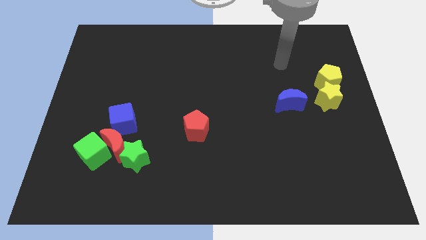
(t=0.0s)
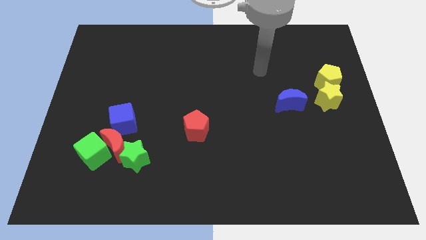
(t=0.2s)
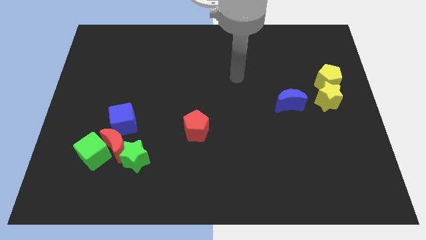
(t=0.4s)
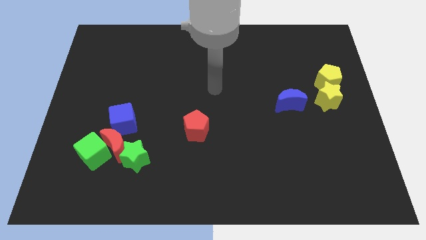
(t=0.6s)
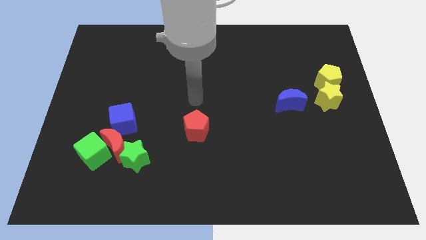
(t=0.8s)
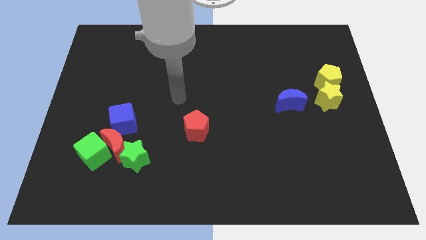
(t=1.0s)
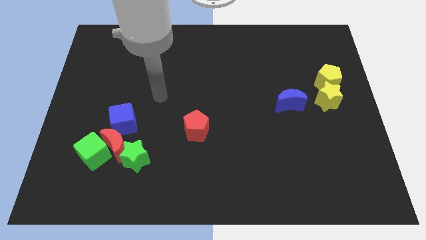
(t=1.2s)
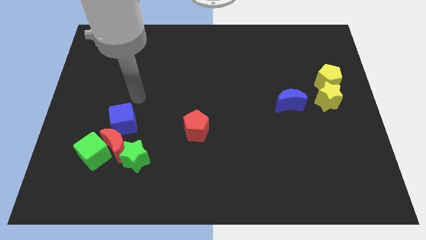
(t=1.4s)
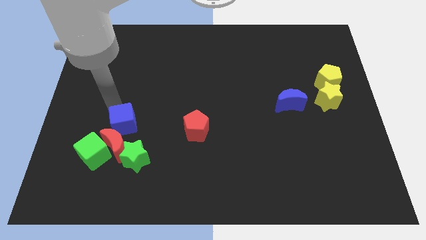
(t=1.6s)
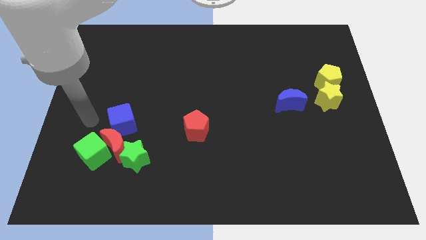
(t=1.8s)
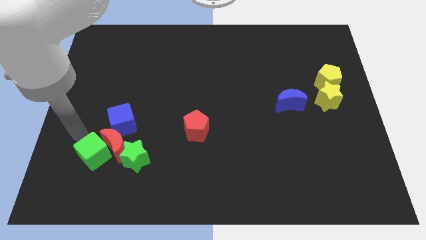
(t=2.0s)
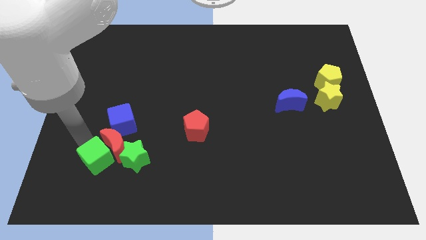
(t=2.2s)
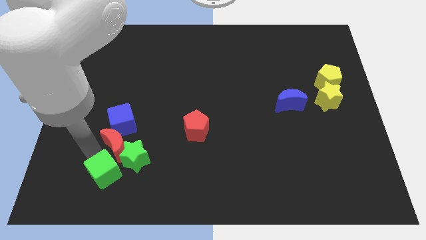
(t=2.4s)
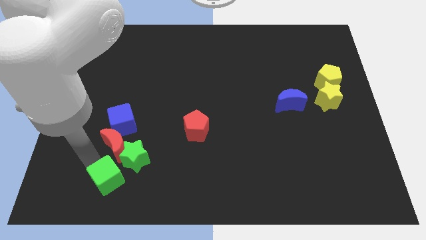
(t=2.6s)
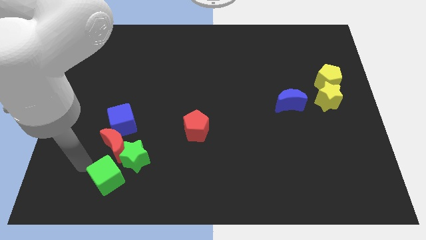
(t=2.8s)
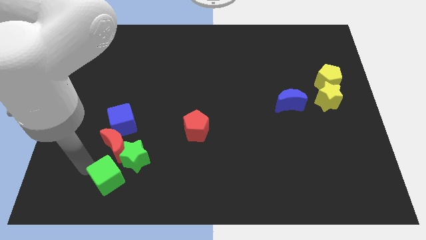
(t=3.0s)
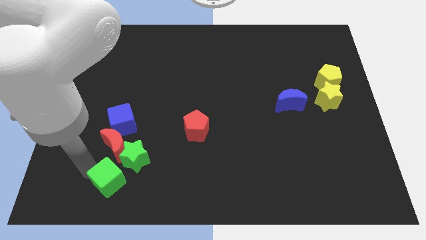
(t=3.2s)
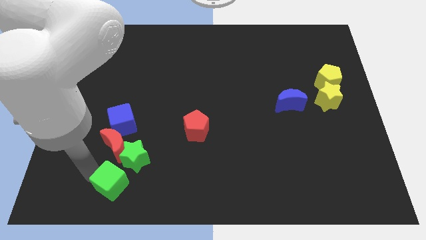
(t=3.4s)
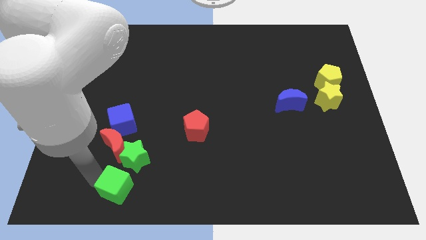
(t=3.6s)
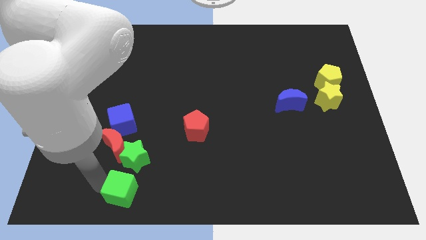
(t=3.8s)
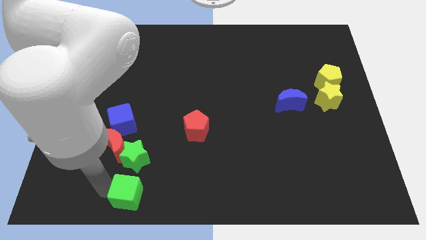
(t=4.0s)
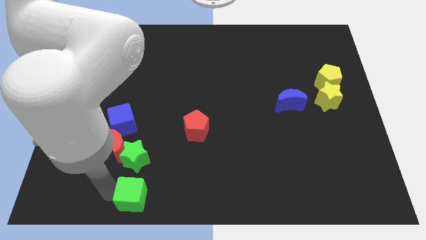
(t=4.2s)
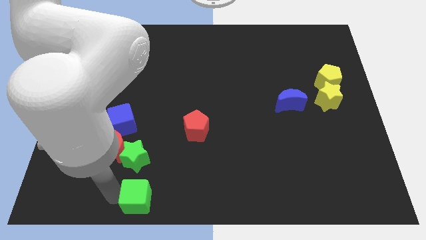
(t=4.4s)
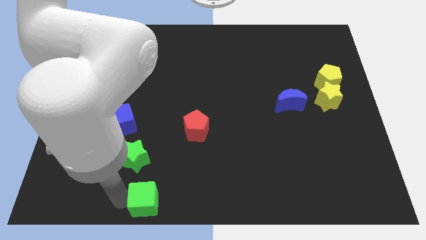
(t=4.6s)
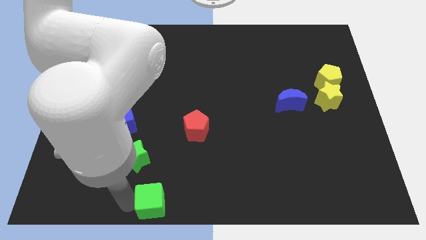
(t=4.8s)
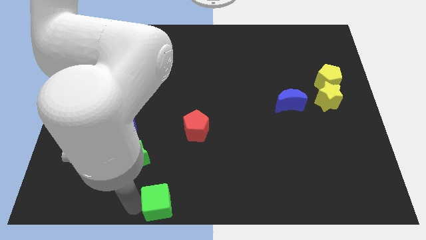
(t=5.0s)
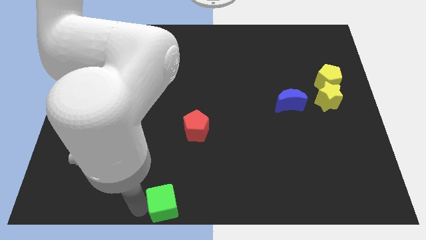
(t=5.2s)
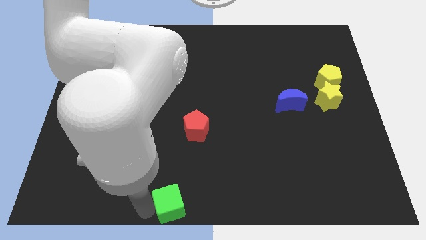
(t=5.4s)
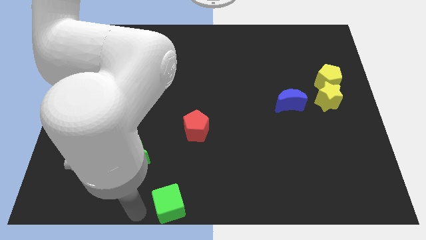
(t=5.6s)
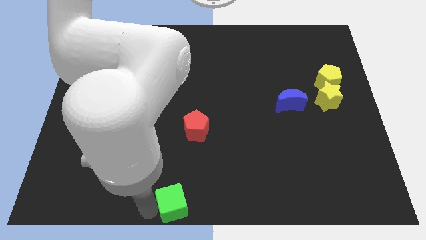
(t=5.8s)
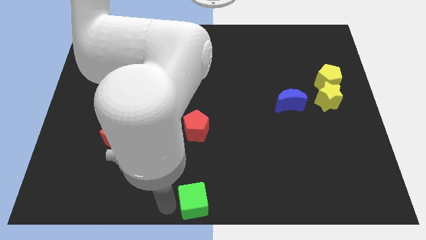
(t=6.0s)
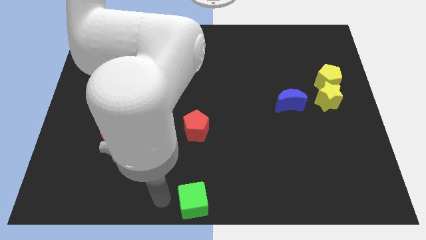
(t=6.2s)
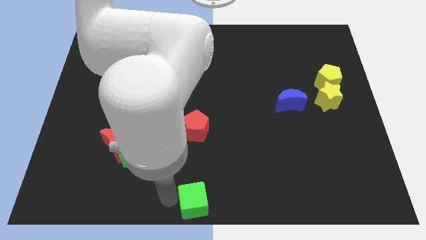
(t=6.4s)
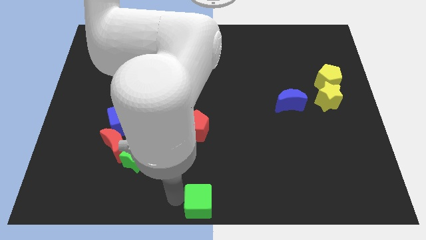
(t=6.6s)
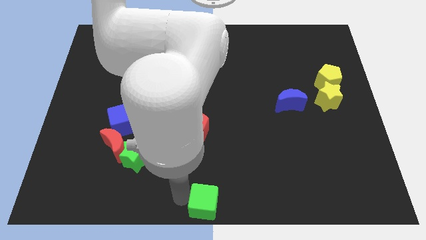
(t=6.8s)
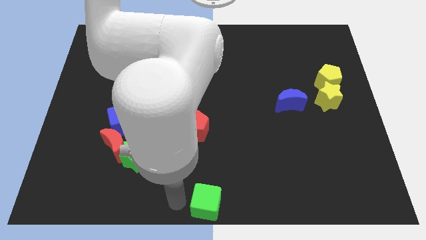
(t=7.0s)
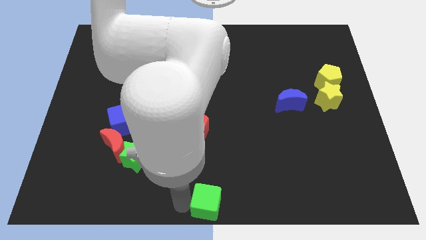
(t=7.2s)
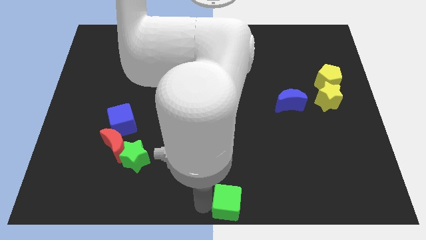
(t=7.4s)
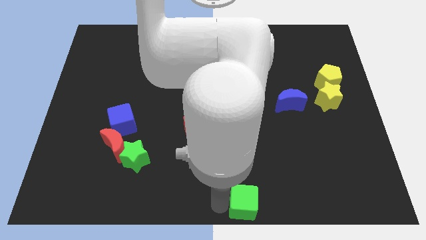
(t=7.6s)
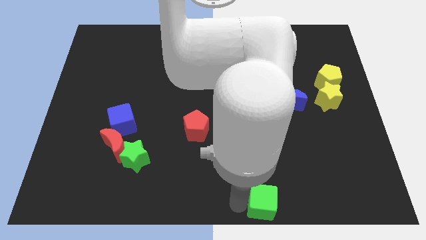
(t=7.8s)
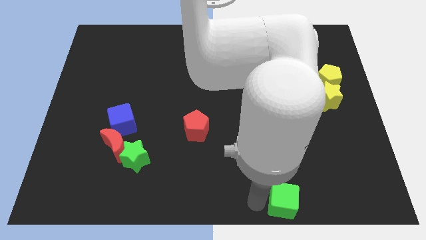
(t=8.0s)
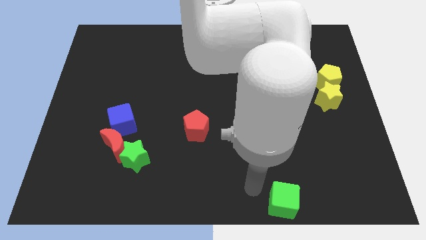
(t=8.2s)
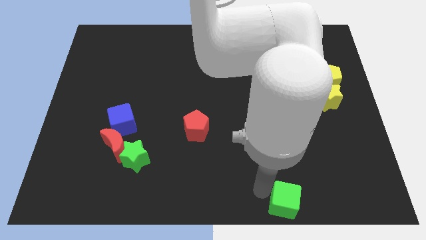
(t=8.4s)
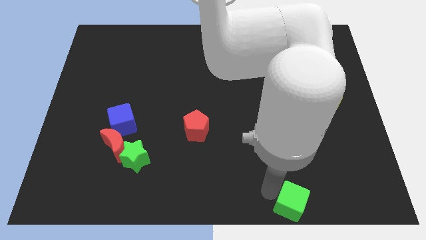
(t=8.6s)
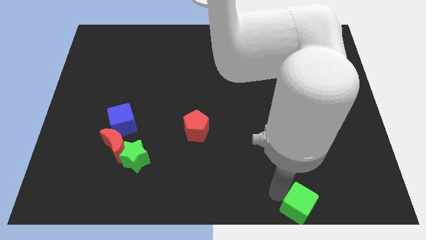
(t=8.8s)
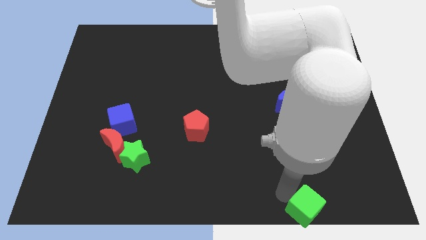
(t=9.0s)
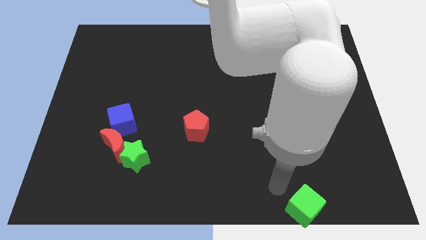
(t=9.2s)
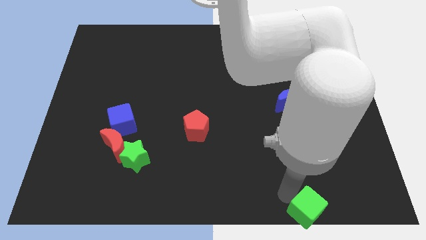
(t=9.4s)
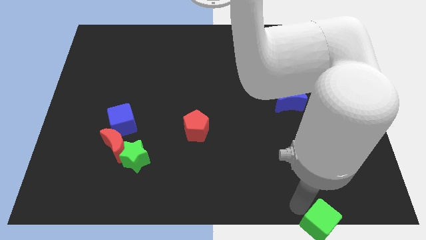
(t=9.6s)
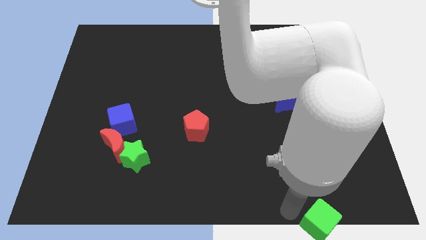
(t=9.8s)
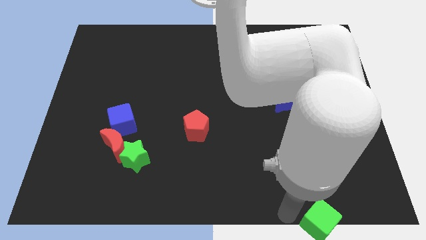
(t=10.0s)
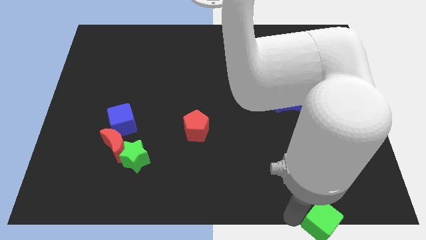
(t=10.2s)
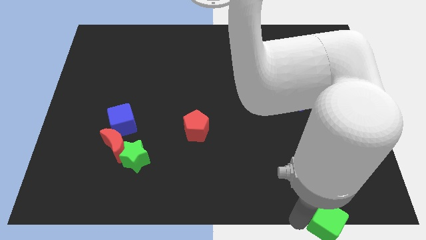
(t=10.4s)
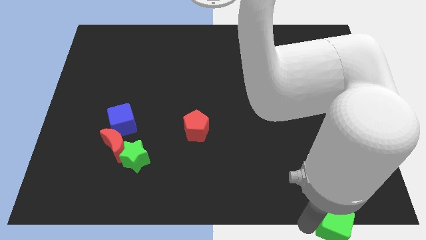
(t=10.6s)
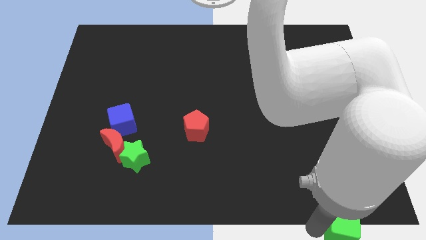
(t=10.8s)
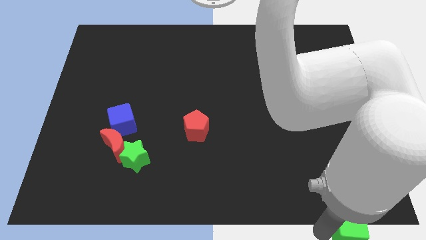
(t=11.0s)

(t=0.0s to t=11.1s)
push the green cube to the bottom right corner

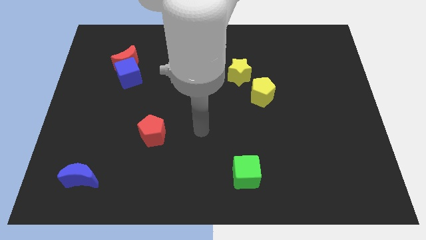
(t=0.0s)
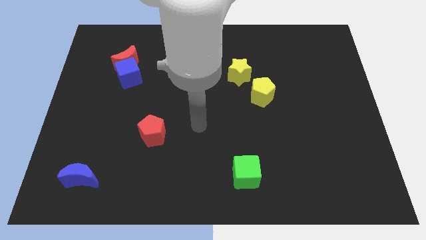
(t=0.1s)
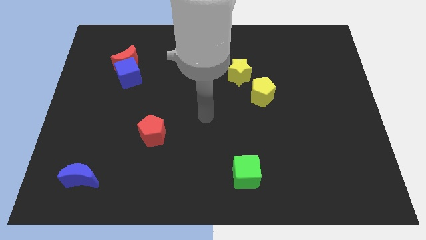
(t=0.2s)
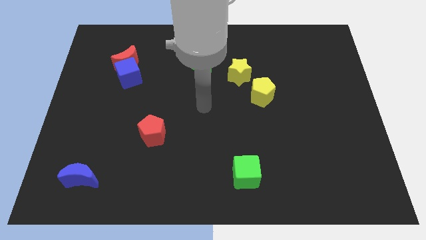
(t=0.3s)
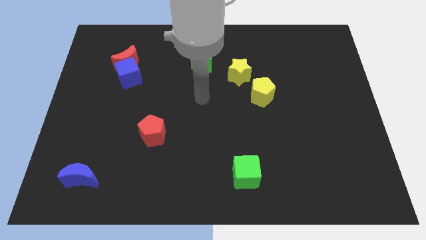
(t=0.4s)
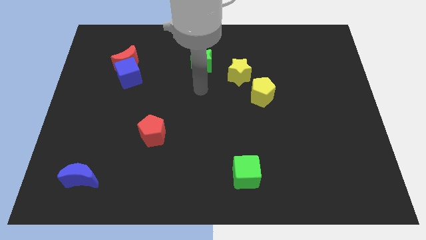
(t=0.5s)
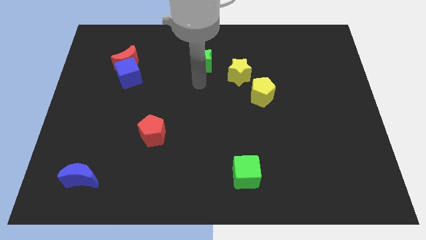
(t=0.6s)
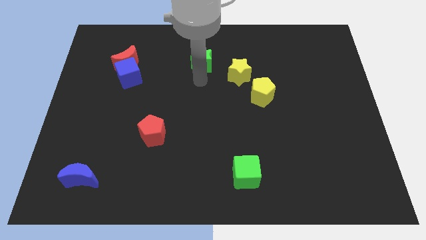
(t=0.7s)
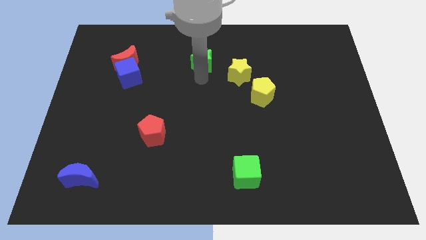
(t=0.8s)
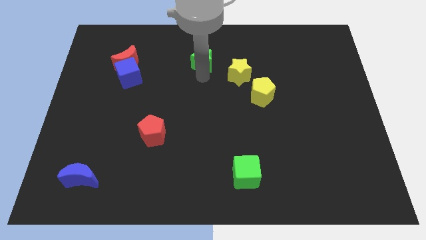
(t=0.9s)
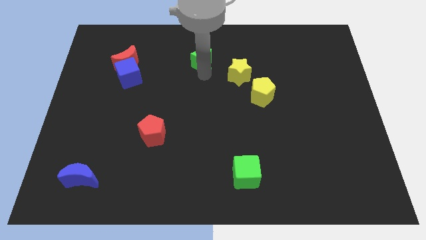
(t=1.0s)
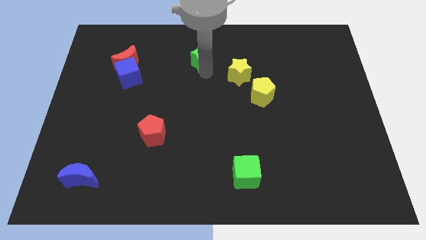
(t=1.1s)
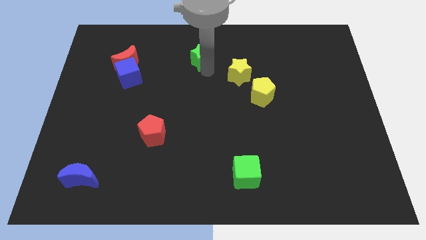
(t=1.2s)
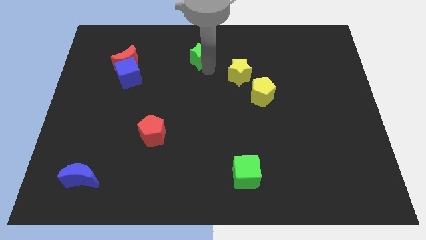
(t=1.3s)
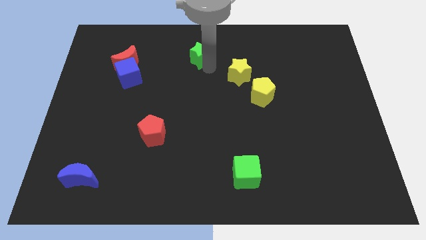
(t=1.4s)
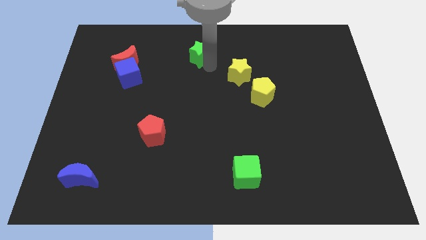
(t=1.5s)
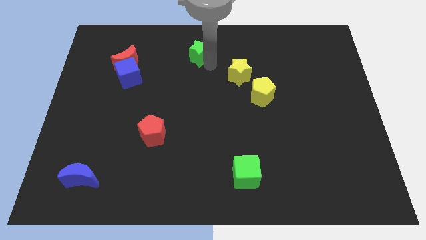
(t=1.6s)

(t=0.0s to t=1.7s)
push the green star to the top side
